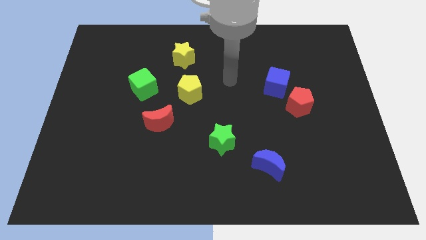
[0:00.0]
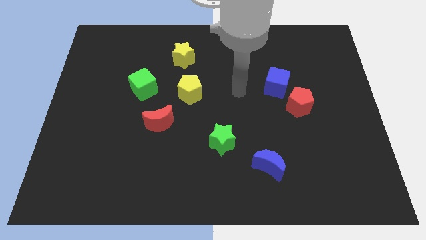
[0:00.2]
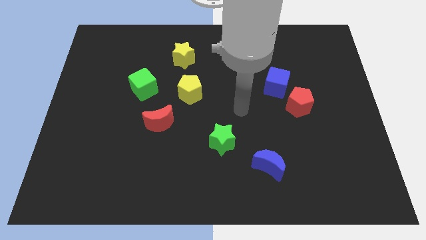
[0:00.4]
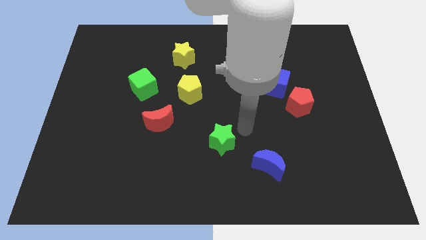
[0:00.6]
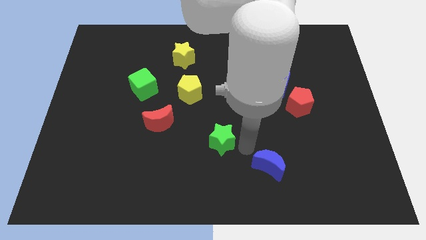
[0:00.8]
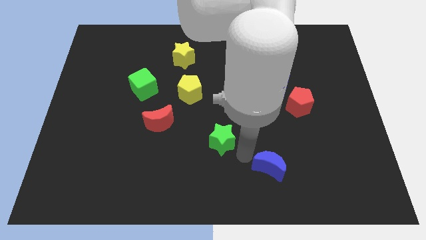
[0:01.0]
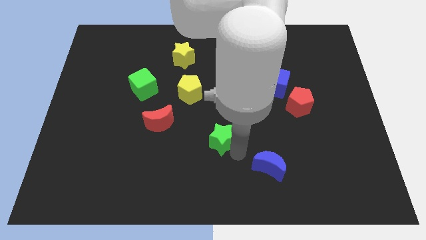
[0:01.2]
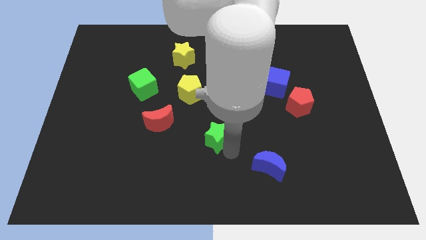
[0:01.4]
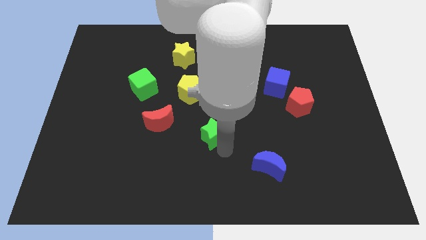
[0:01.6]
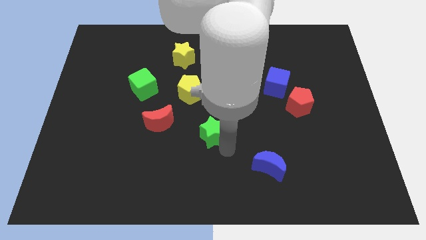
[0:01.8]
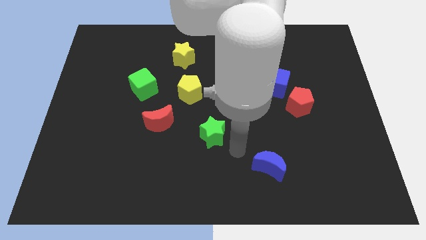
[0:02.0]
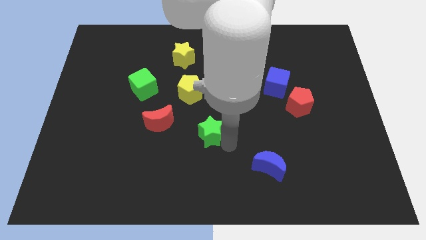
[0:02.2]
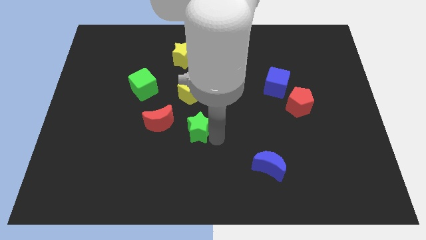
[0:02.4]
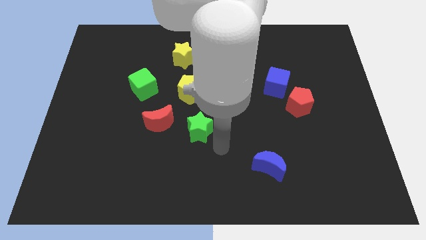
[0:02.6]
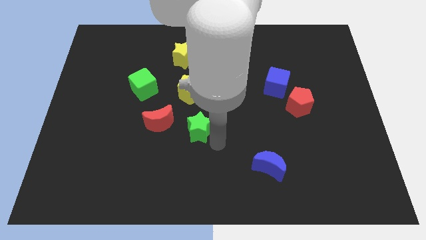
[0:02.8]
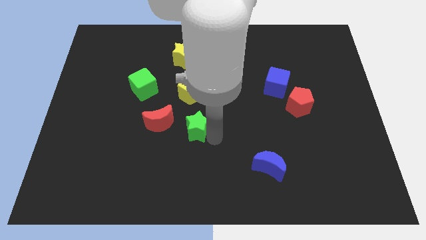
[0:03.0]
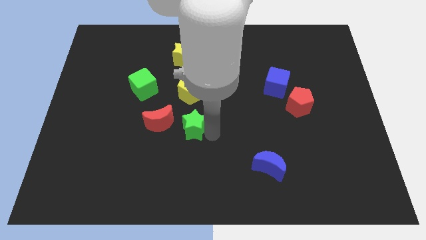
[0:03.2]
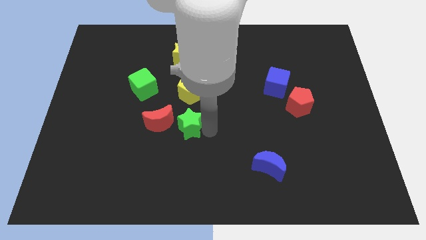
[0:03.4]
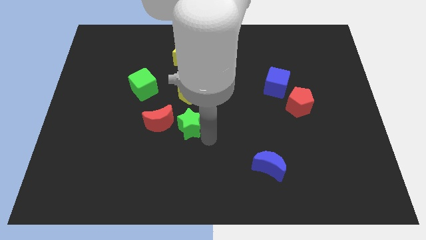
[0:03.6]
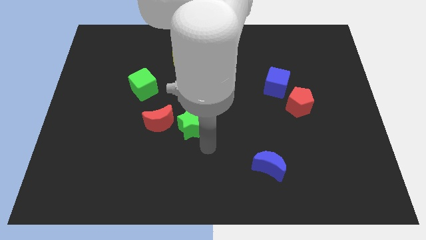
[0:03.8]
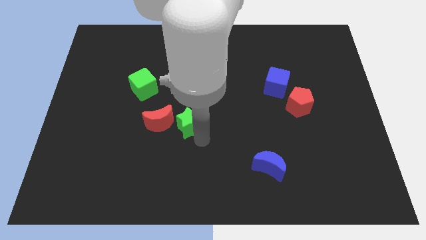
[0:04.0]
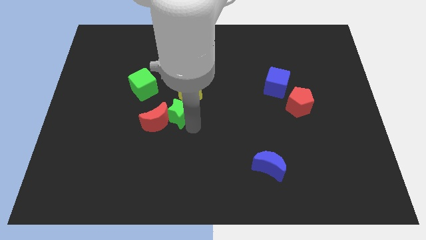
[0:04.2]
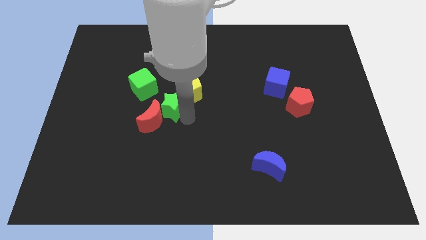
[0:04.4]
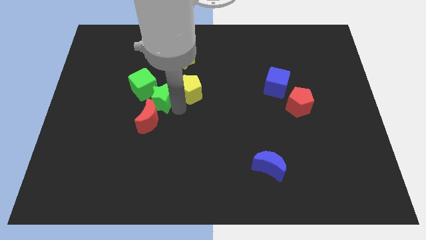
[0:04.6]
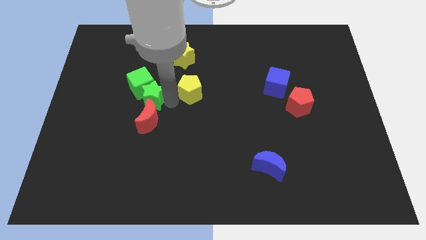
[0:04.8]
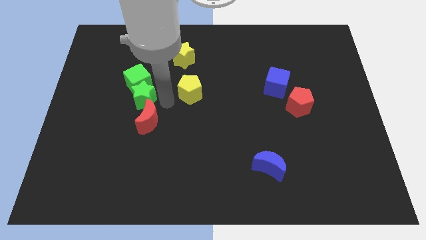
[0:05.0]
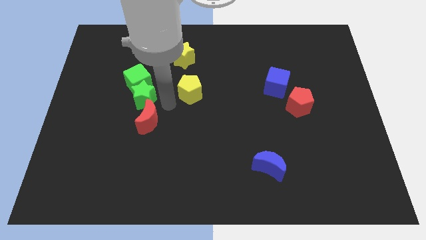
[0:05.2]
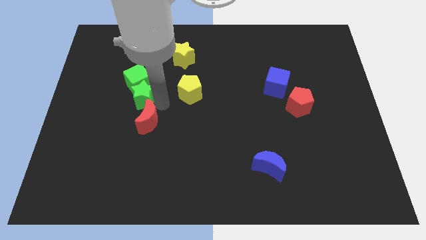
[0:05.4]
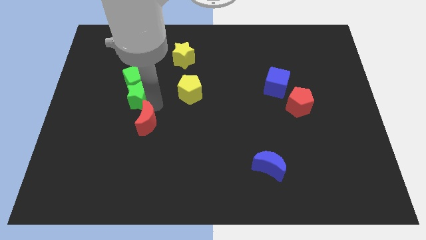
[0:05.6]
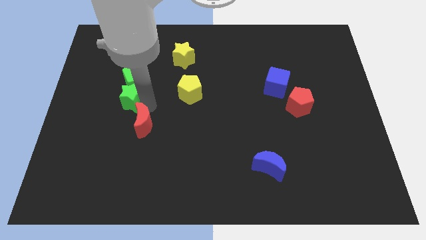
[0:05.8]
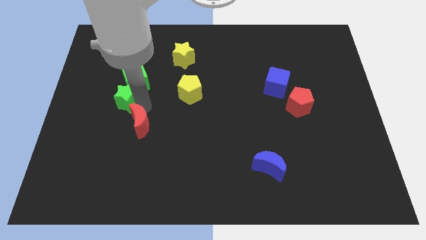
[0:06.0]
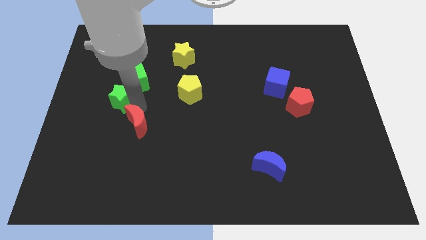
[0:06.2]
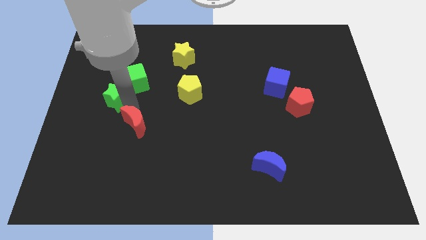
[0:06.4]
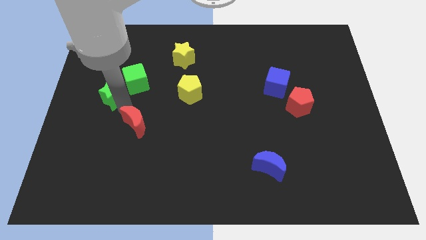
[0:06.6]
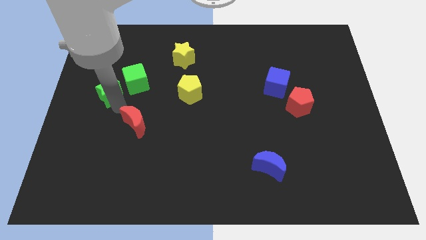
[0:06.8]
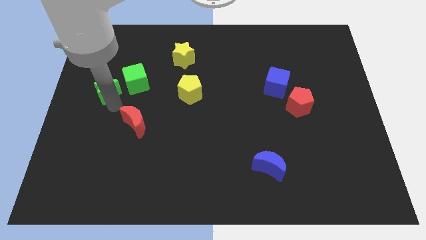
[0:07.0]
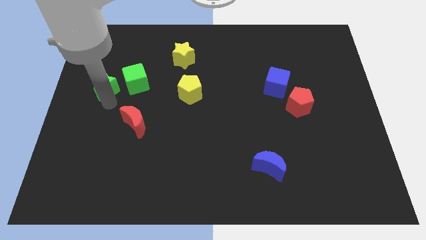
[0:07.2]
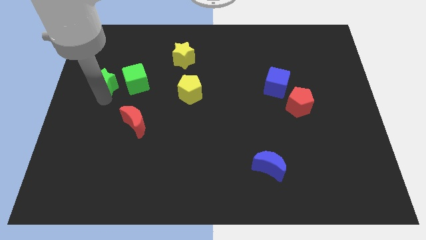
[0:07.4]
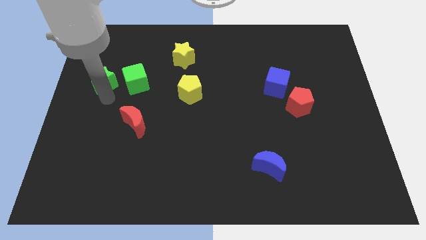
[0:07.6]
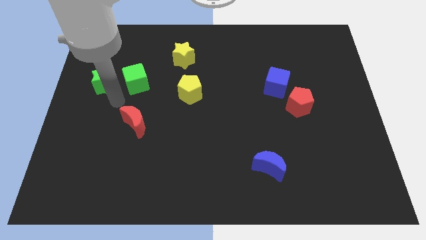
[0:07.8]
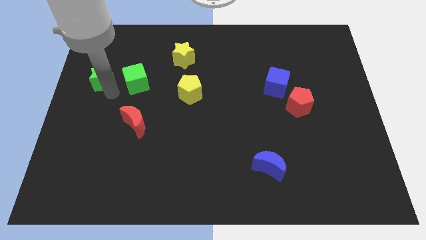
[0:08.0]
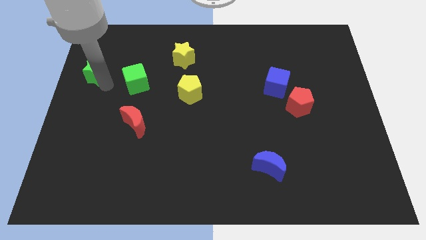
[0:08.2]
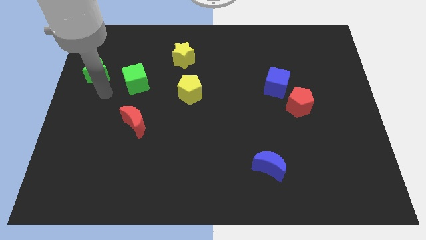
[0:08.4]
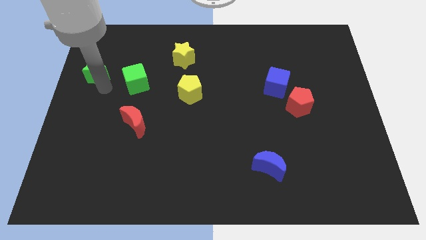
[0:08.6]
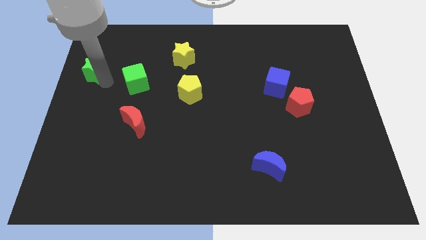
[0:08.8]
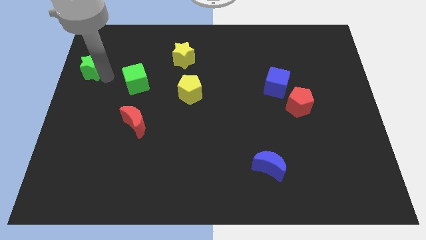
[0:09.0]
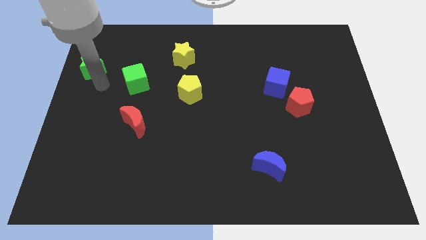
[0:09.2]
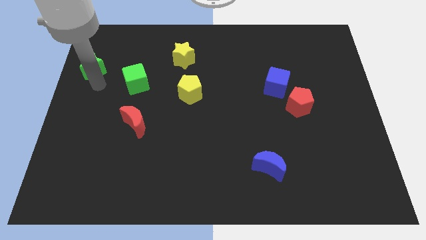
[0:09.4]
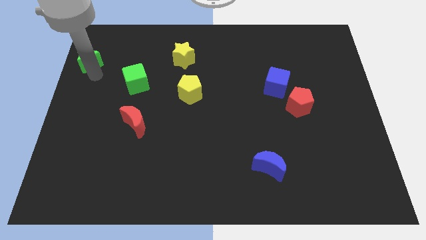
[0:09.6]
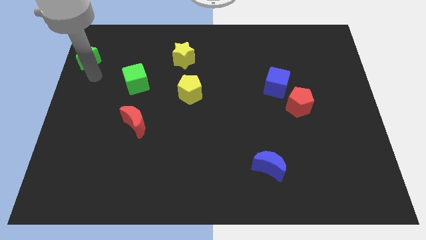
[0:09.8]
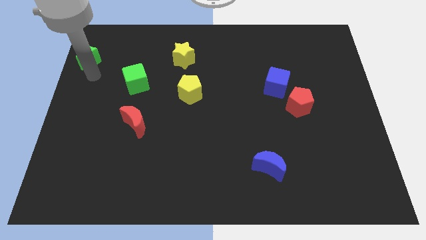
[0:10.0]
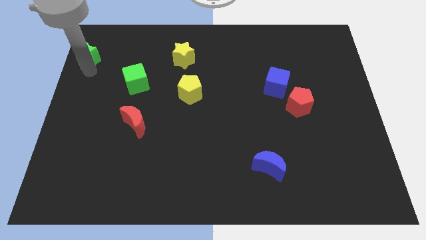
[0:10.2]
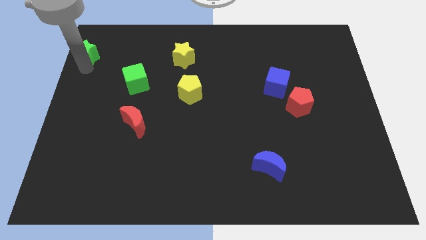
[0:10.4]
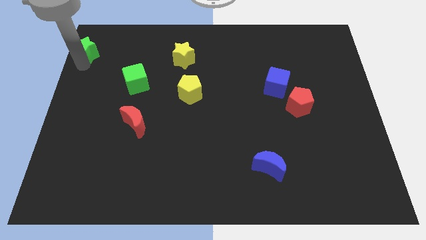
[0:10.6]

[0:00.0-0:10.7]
move the green star to the top left corner

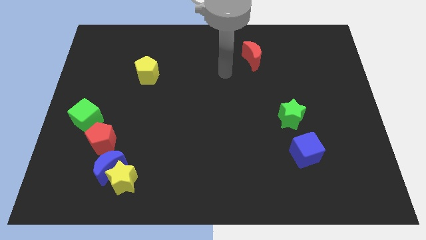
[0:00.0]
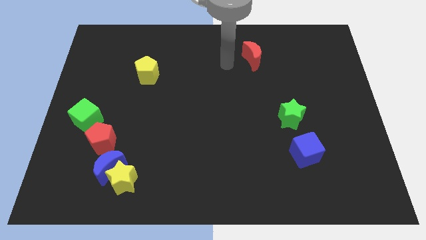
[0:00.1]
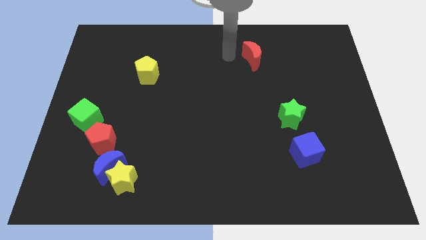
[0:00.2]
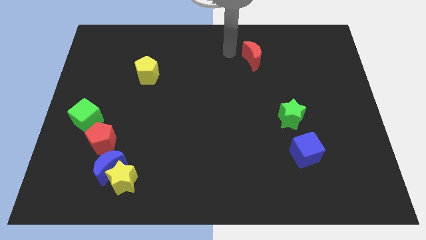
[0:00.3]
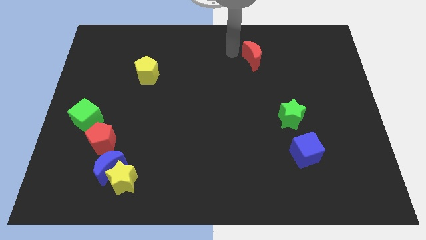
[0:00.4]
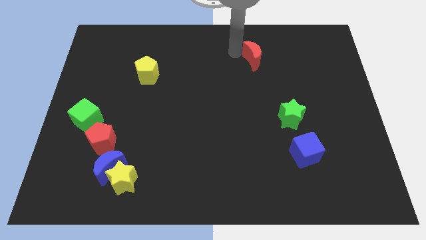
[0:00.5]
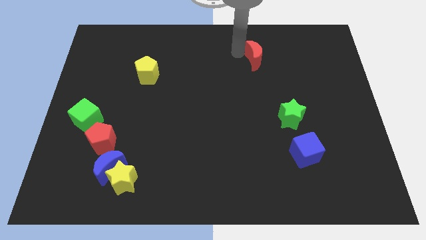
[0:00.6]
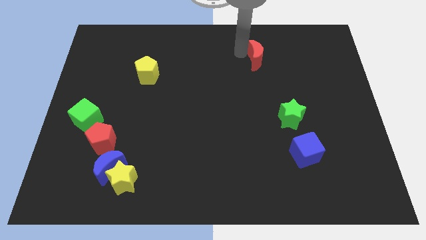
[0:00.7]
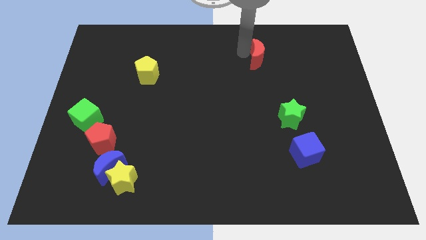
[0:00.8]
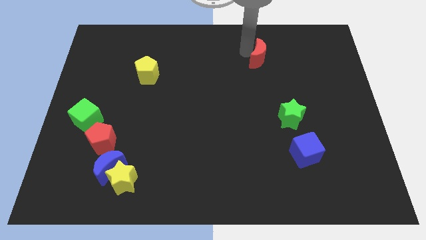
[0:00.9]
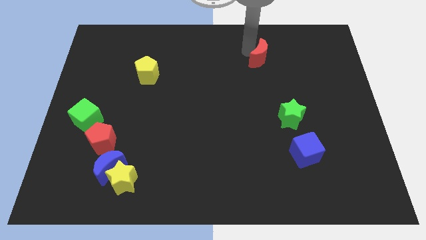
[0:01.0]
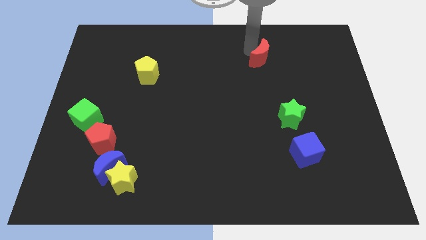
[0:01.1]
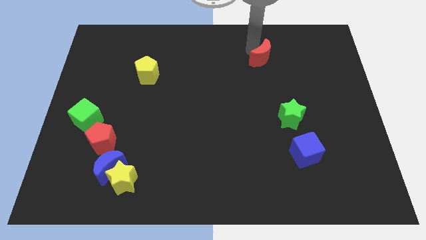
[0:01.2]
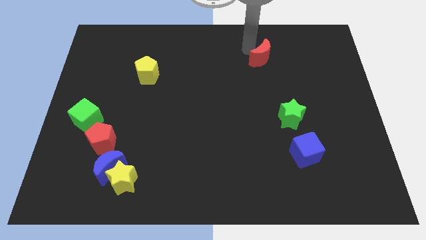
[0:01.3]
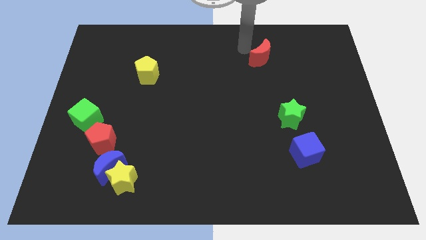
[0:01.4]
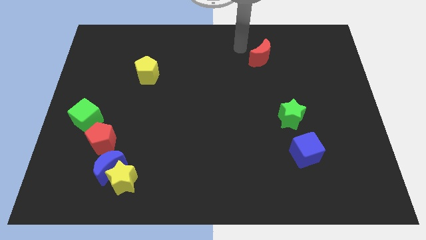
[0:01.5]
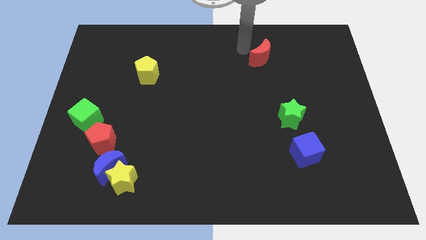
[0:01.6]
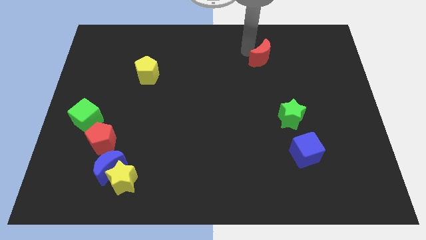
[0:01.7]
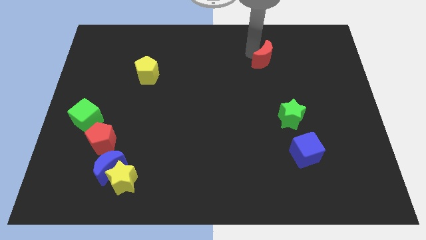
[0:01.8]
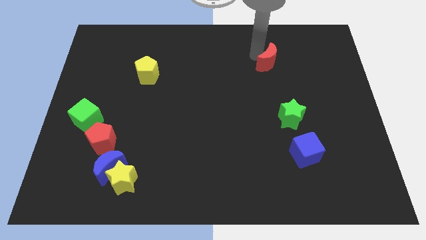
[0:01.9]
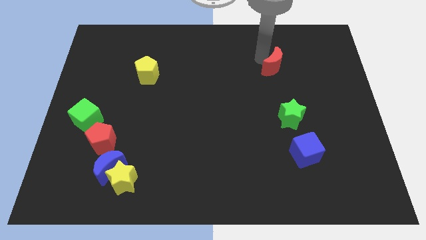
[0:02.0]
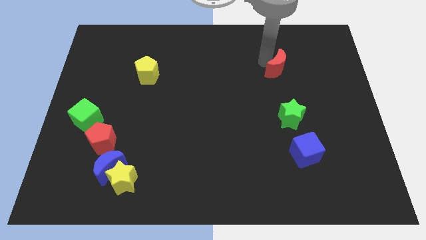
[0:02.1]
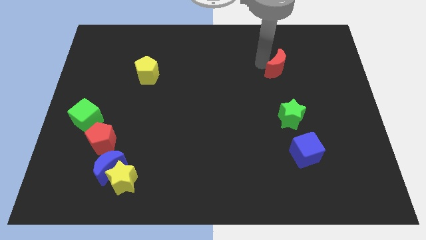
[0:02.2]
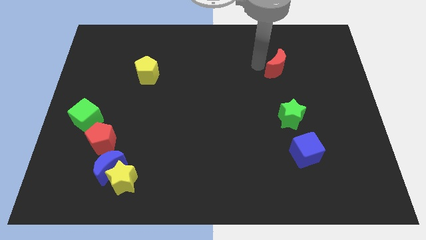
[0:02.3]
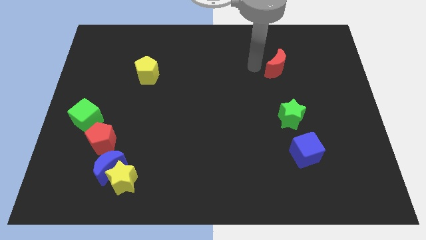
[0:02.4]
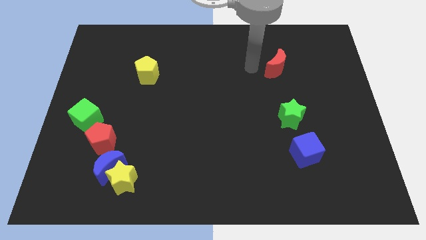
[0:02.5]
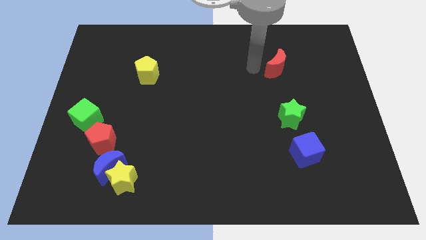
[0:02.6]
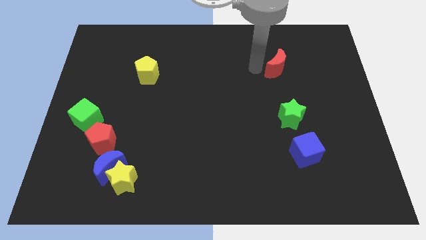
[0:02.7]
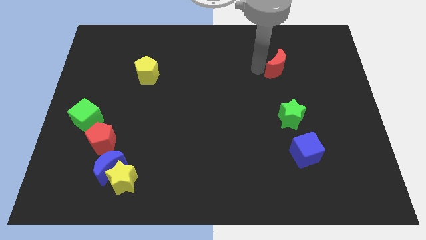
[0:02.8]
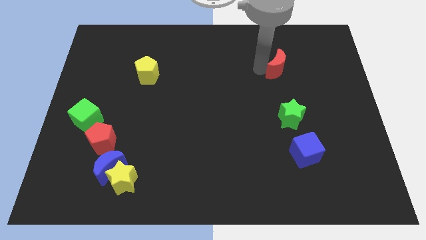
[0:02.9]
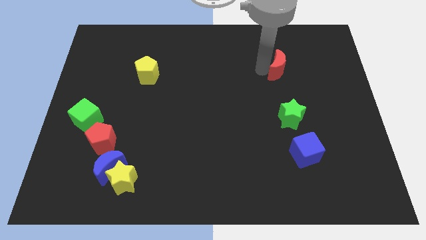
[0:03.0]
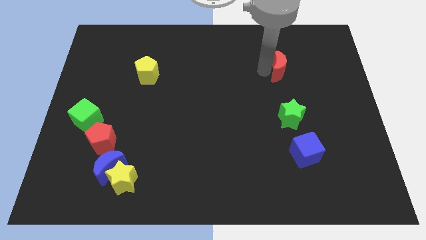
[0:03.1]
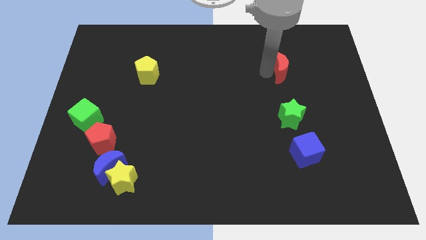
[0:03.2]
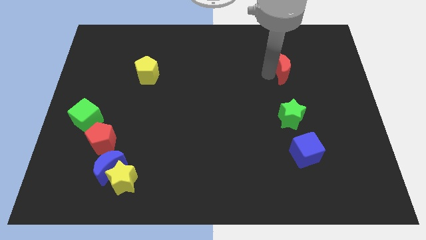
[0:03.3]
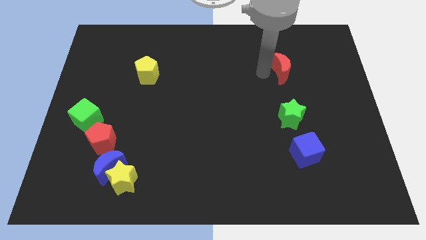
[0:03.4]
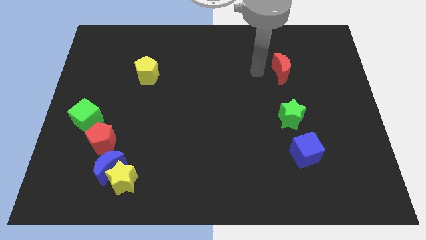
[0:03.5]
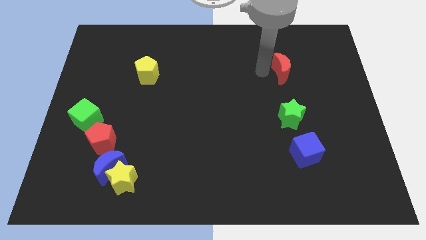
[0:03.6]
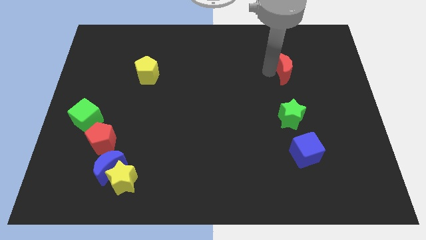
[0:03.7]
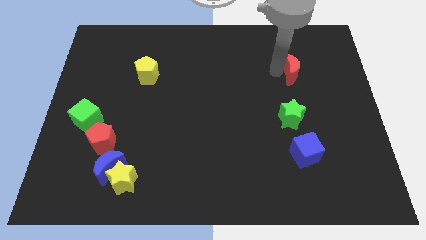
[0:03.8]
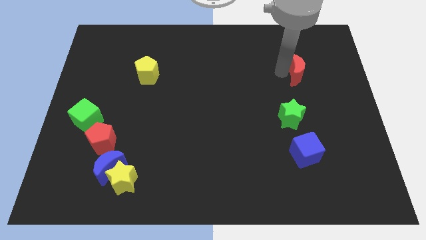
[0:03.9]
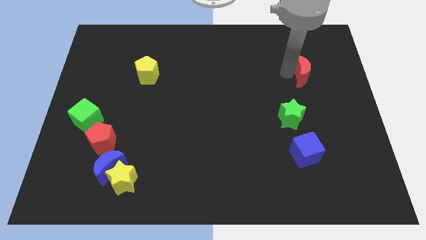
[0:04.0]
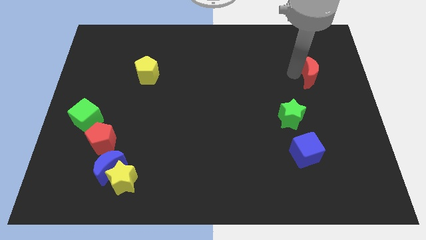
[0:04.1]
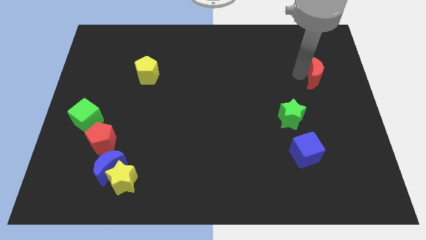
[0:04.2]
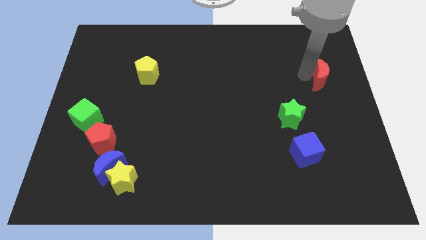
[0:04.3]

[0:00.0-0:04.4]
slide the red moon to the right side
